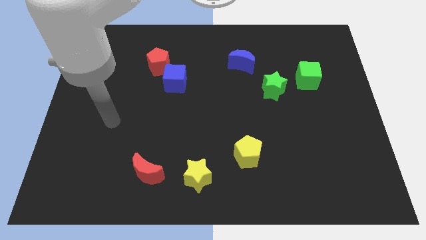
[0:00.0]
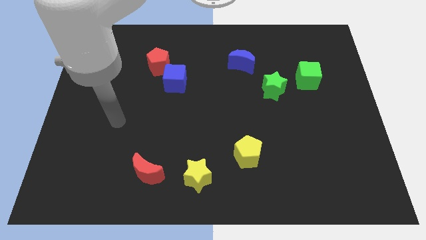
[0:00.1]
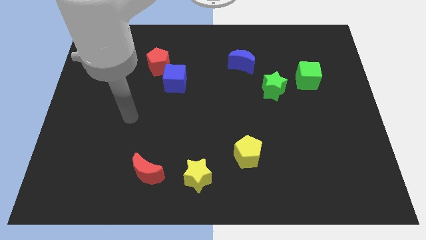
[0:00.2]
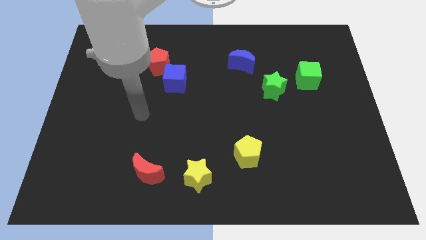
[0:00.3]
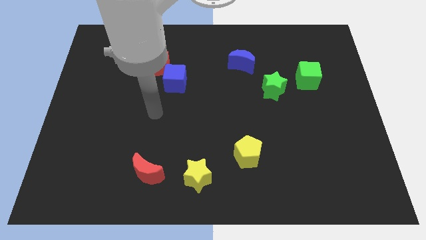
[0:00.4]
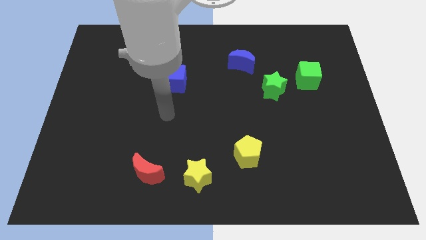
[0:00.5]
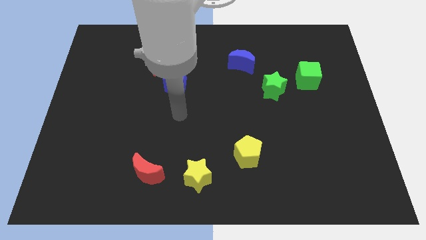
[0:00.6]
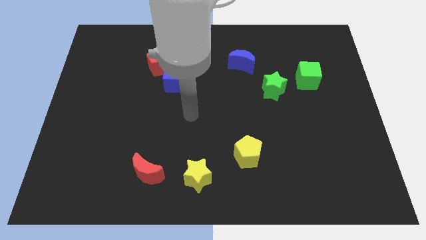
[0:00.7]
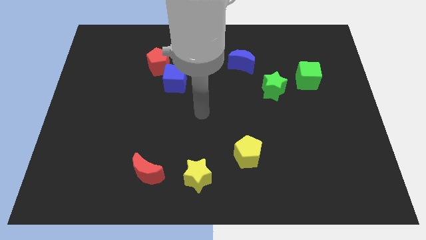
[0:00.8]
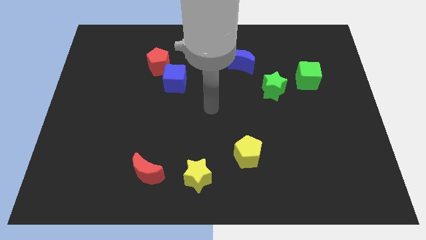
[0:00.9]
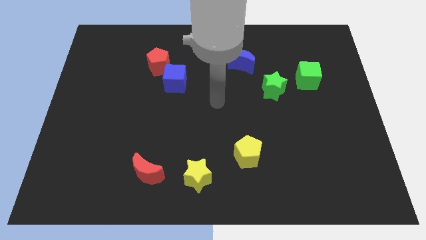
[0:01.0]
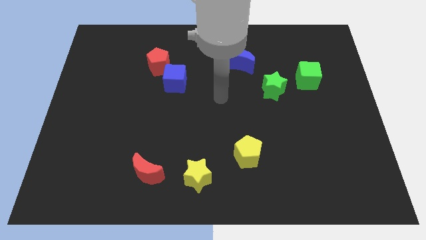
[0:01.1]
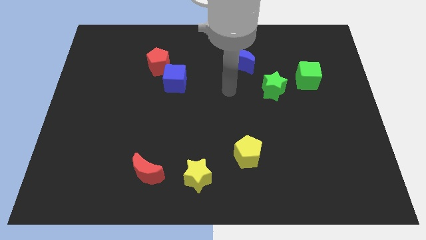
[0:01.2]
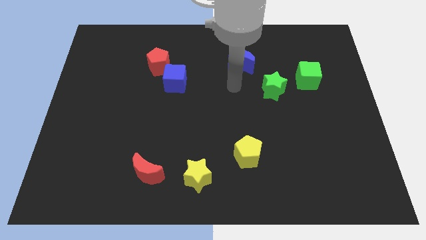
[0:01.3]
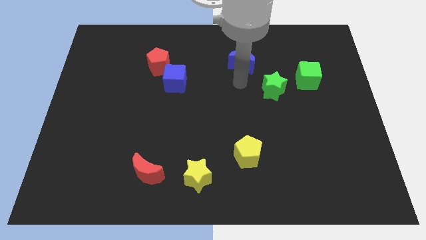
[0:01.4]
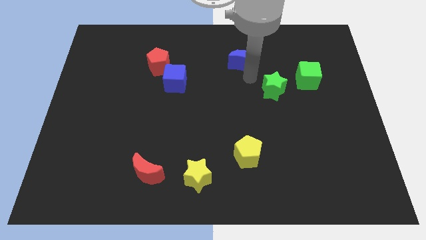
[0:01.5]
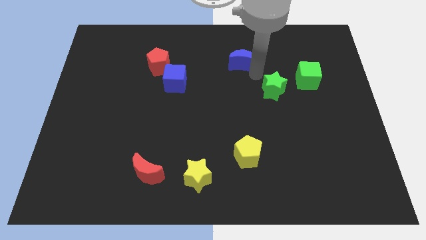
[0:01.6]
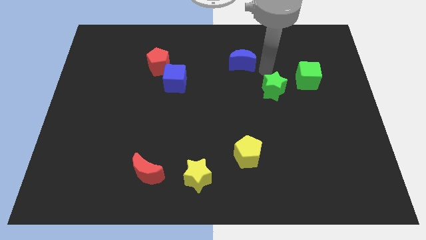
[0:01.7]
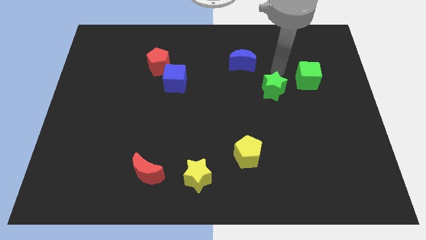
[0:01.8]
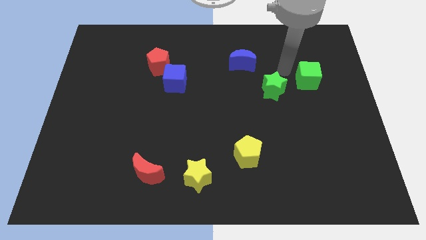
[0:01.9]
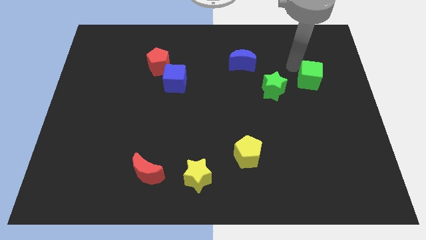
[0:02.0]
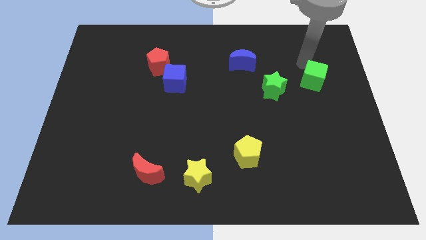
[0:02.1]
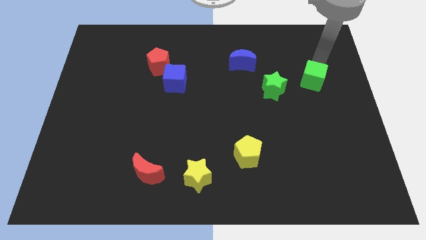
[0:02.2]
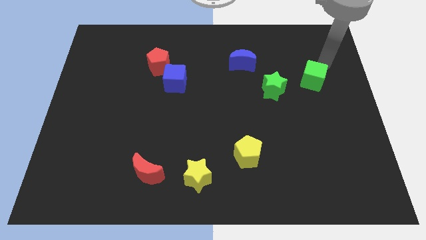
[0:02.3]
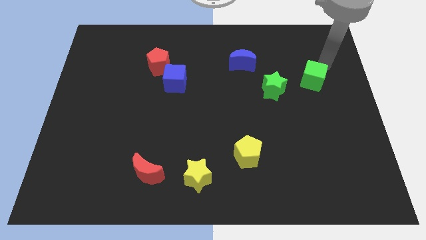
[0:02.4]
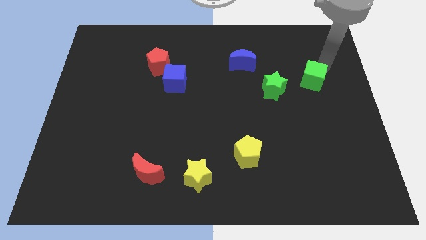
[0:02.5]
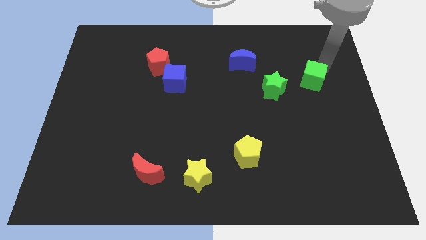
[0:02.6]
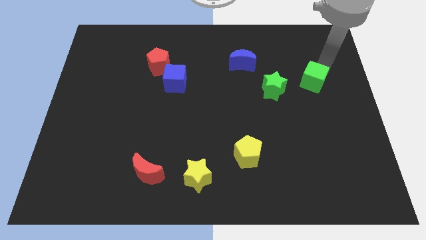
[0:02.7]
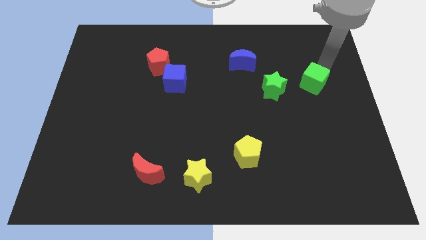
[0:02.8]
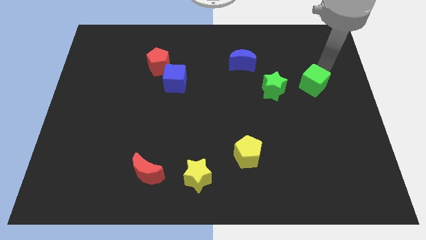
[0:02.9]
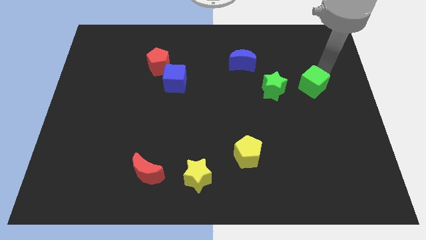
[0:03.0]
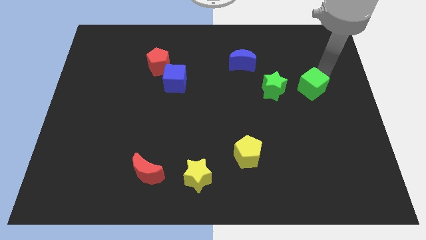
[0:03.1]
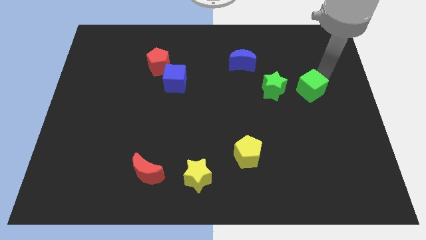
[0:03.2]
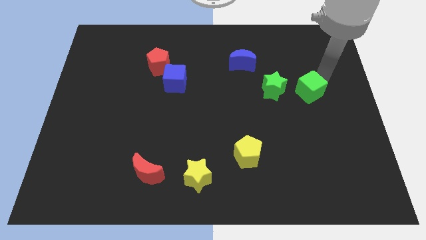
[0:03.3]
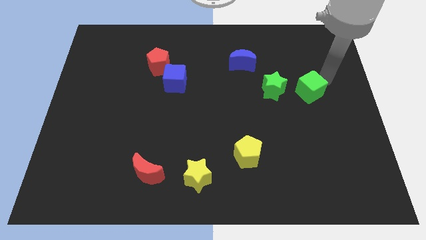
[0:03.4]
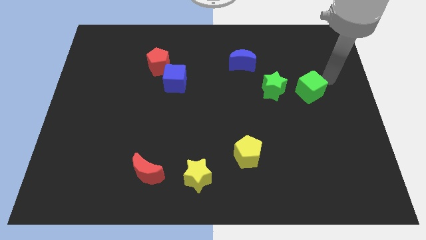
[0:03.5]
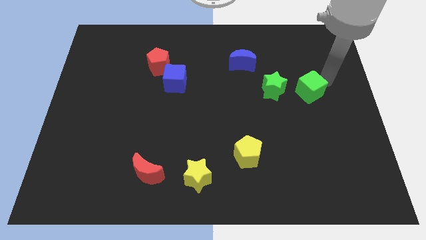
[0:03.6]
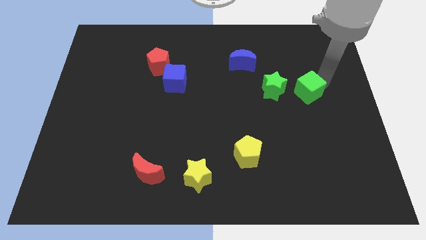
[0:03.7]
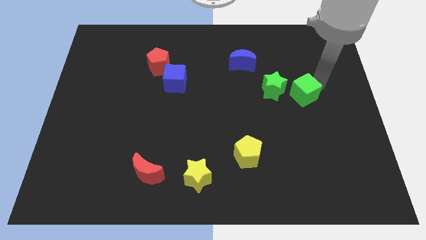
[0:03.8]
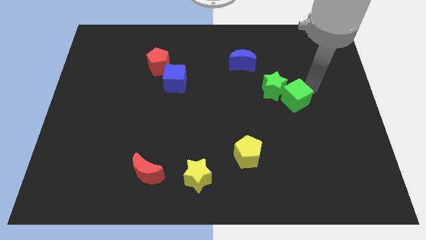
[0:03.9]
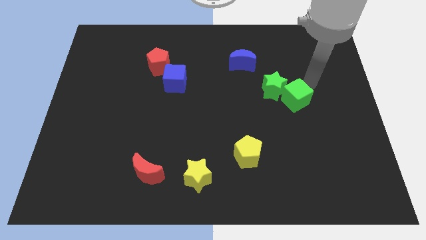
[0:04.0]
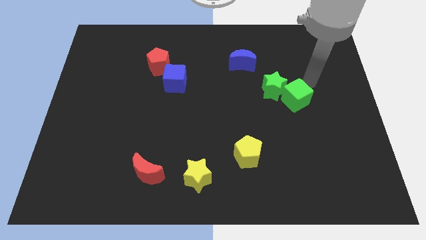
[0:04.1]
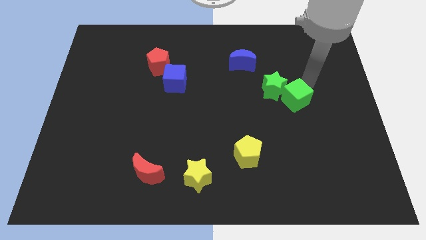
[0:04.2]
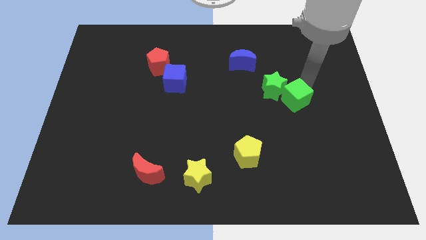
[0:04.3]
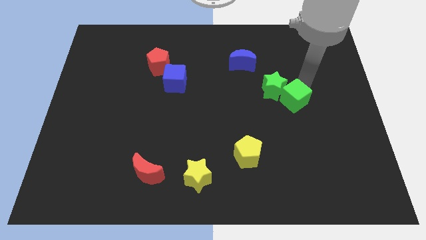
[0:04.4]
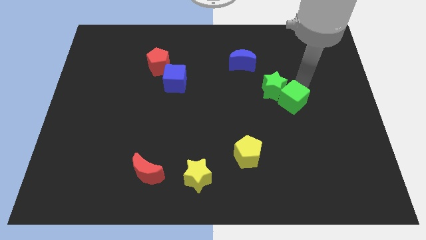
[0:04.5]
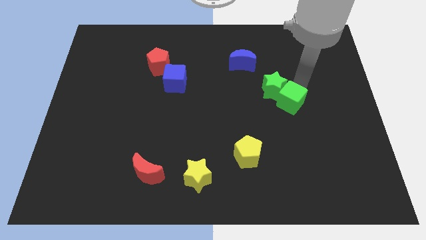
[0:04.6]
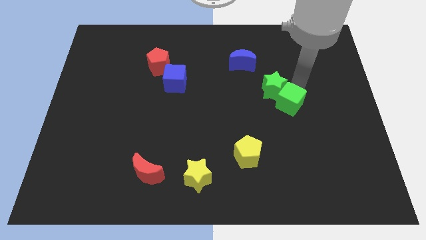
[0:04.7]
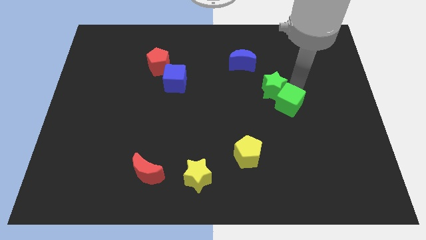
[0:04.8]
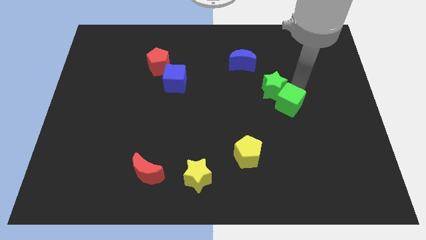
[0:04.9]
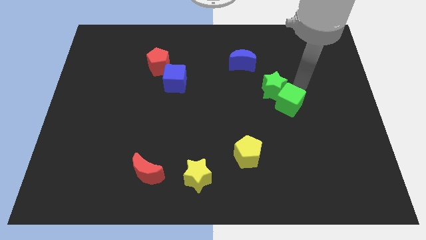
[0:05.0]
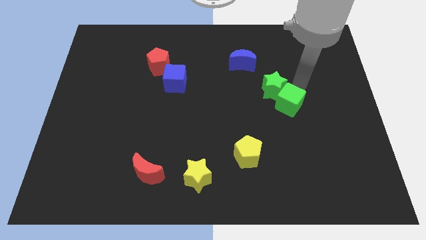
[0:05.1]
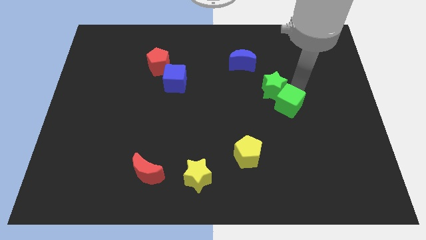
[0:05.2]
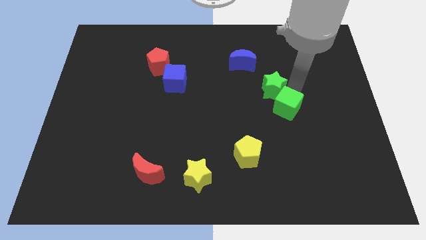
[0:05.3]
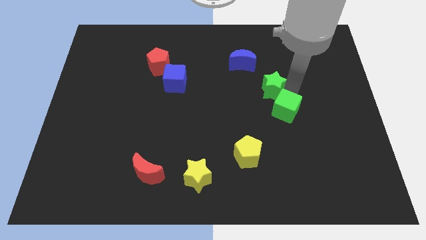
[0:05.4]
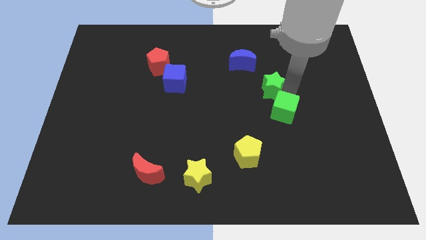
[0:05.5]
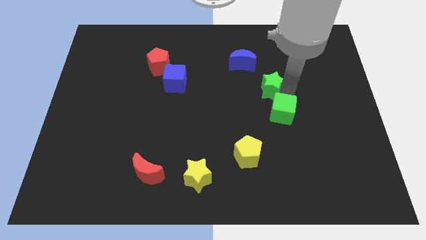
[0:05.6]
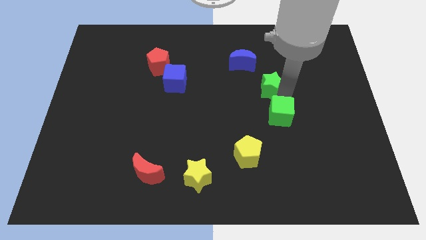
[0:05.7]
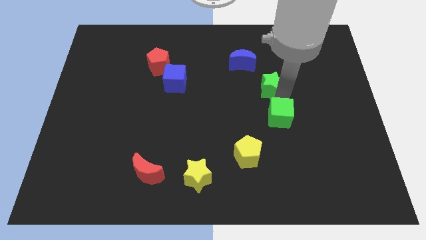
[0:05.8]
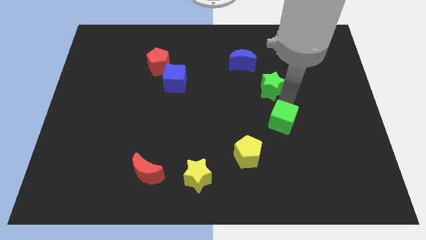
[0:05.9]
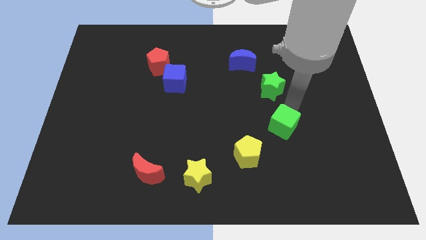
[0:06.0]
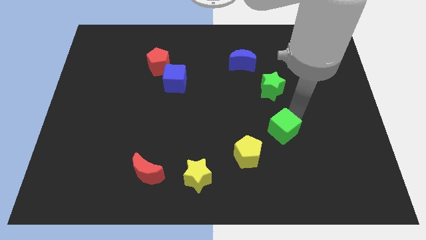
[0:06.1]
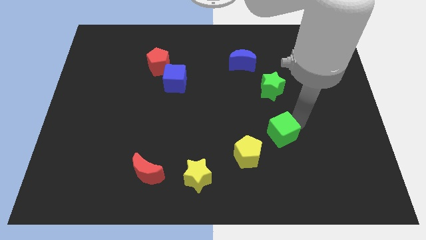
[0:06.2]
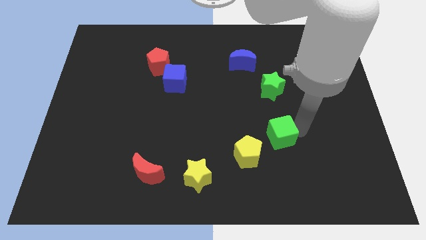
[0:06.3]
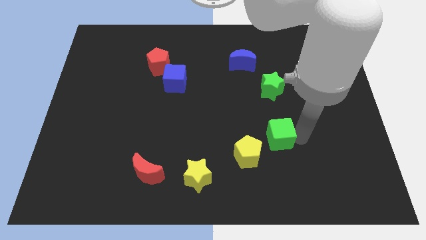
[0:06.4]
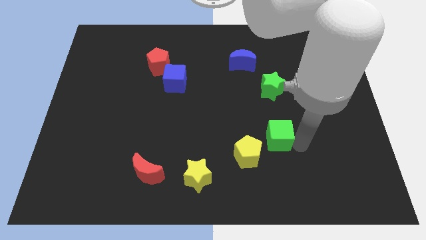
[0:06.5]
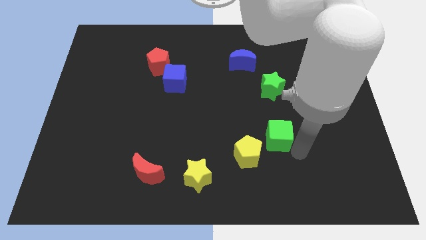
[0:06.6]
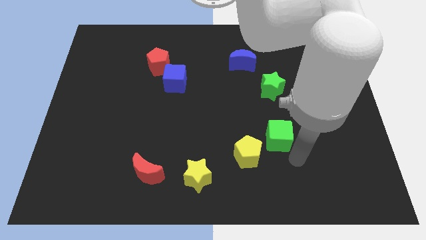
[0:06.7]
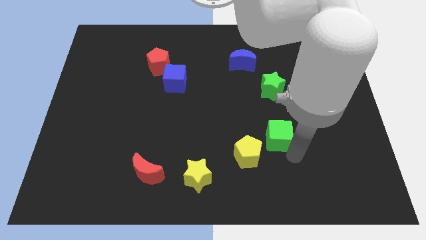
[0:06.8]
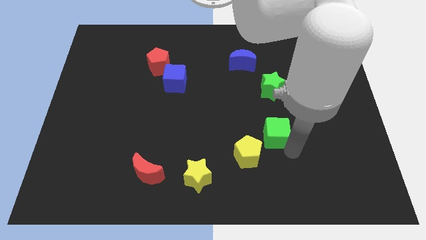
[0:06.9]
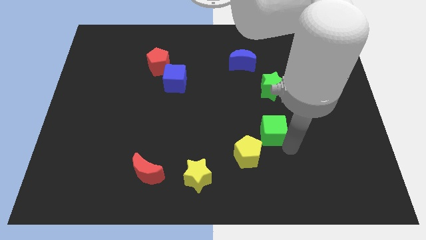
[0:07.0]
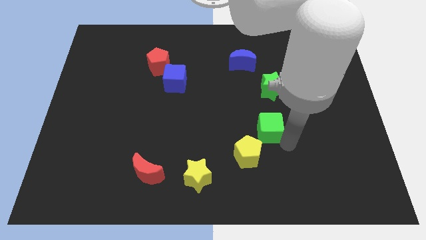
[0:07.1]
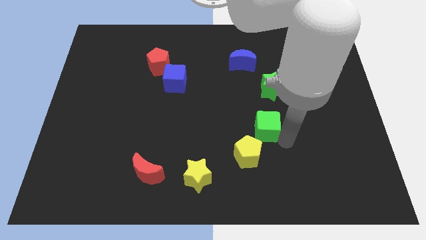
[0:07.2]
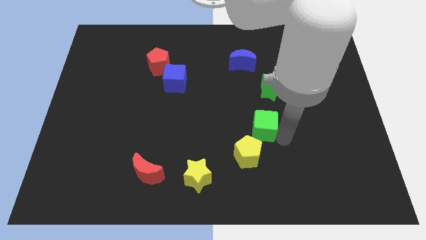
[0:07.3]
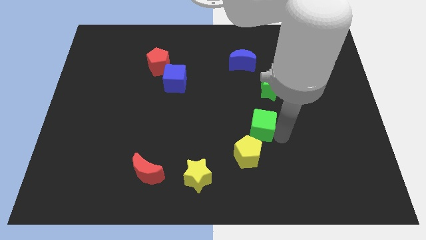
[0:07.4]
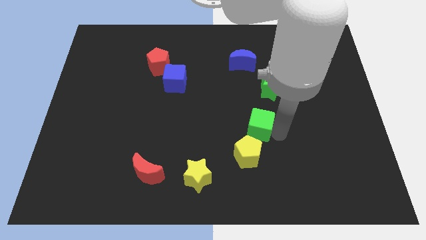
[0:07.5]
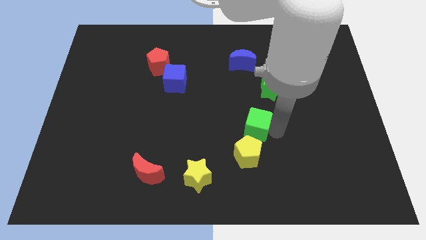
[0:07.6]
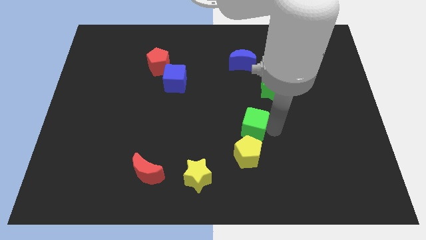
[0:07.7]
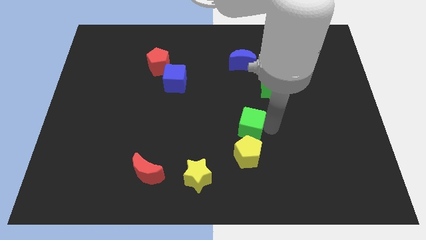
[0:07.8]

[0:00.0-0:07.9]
push the green cube diagonally down and to the left of the green star
